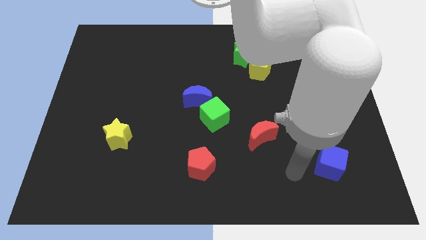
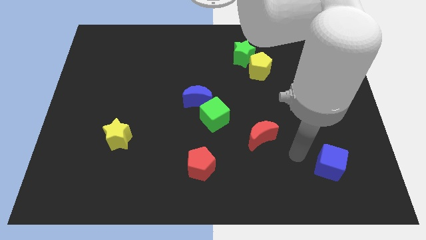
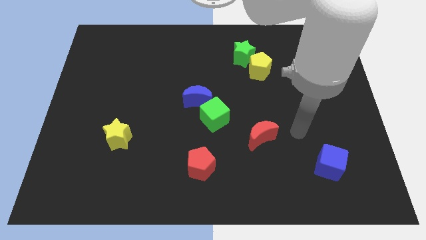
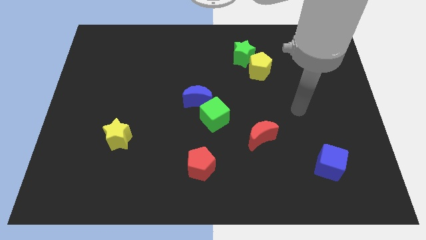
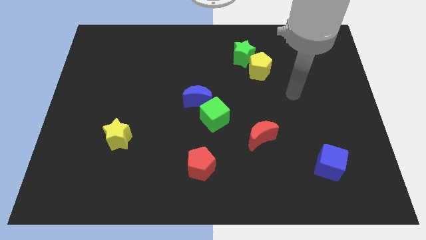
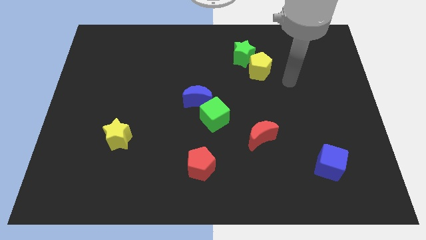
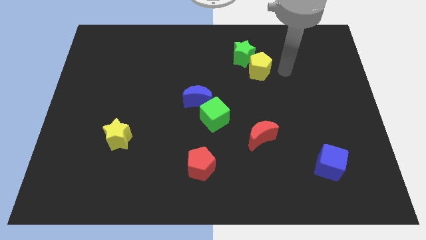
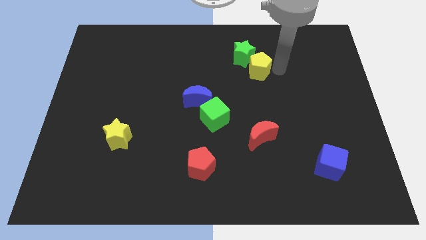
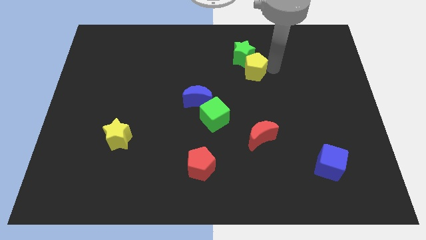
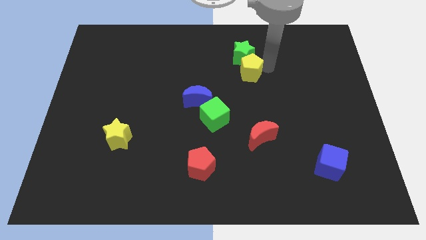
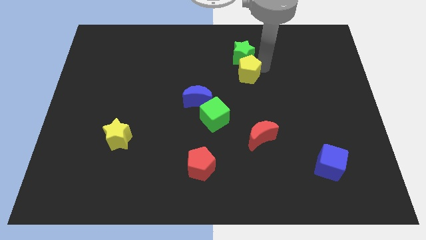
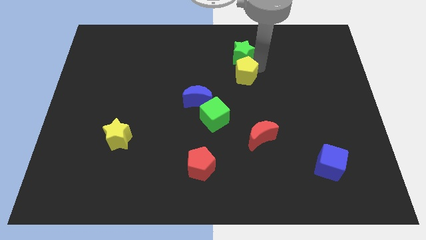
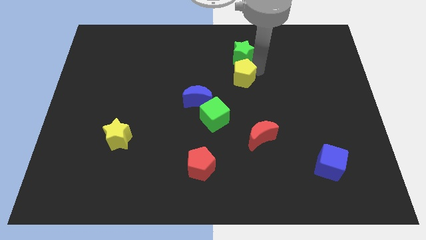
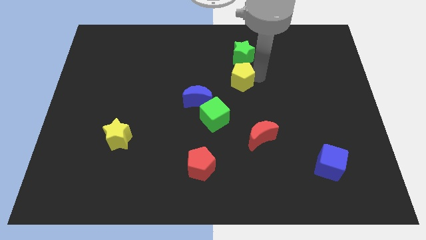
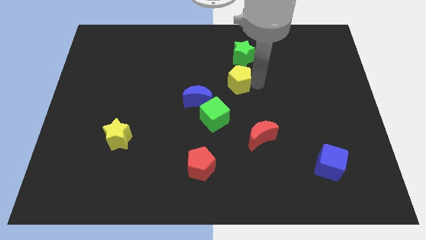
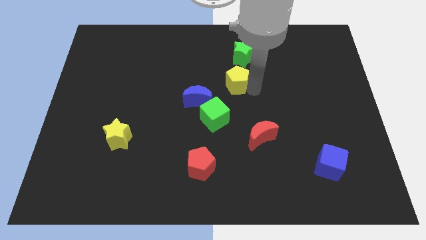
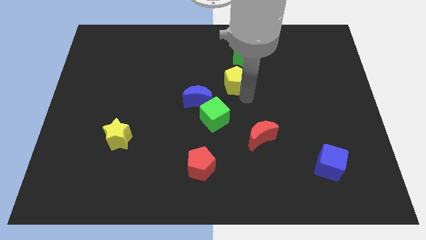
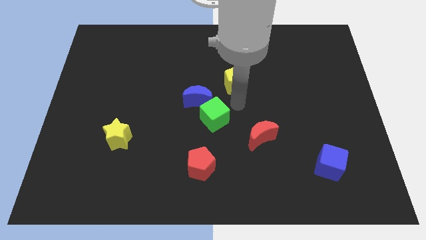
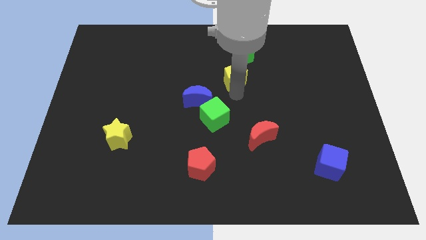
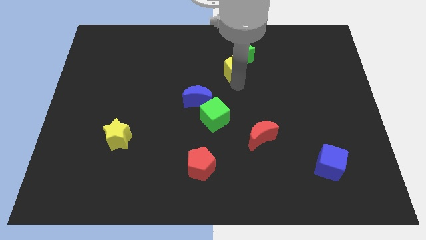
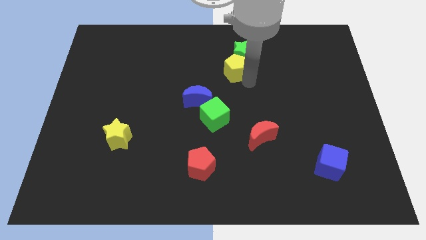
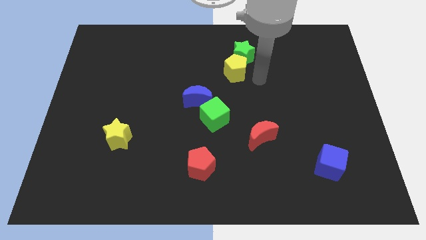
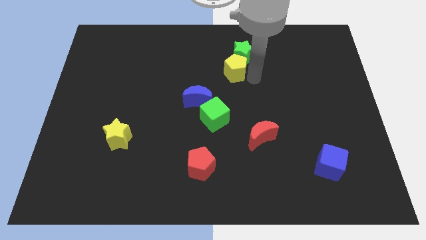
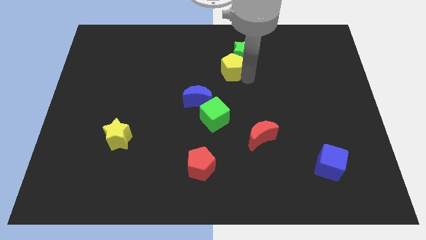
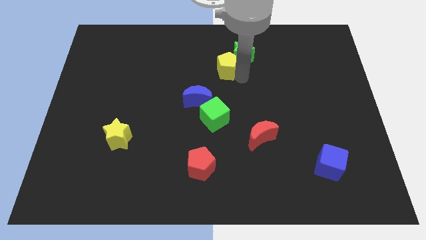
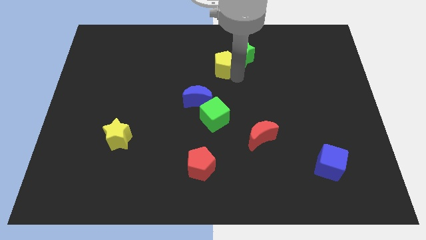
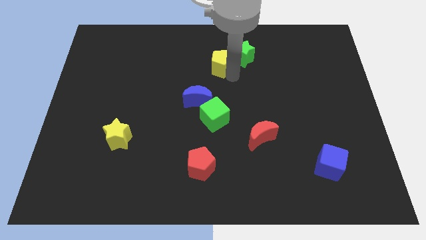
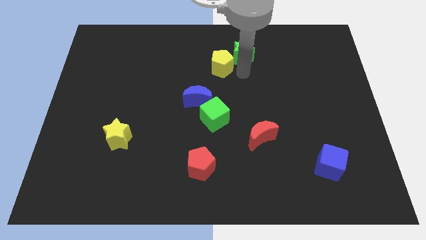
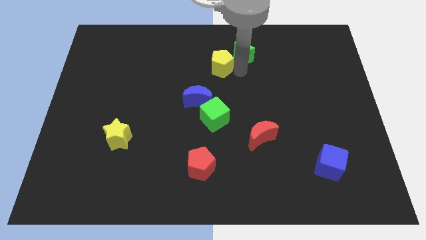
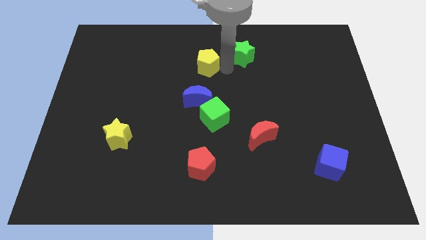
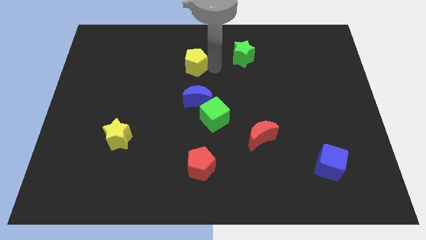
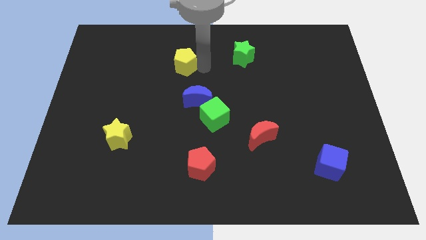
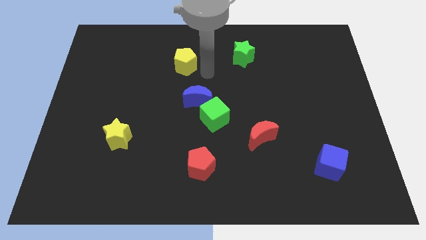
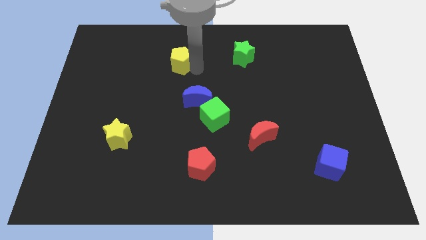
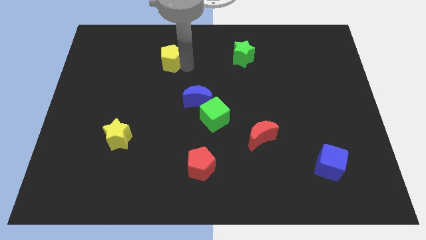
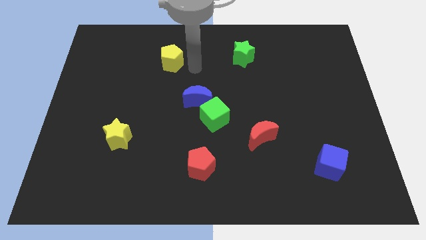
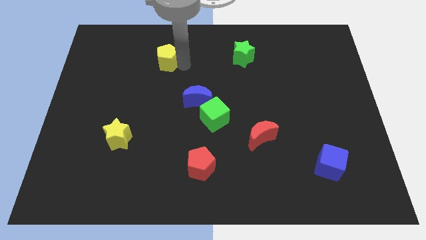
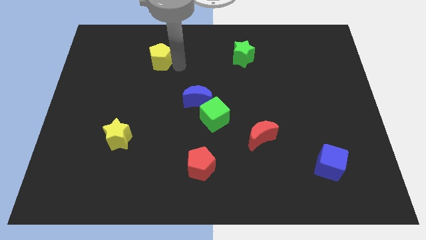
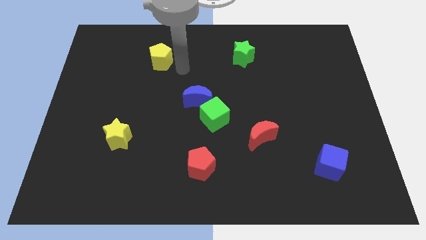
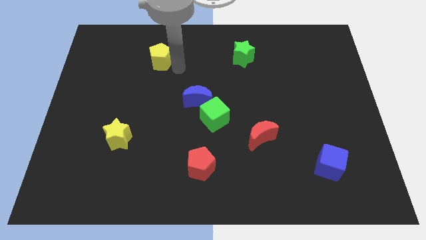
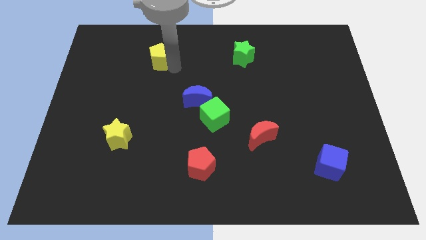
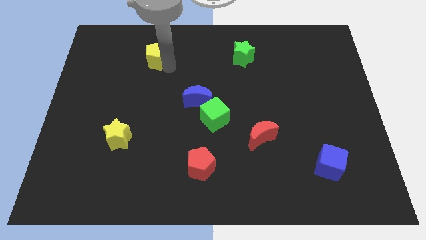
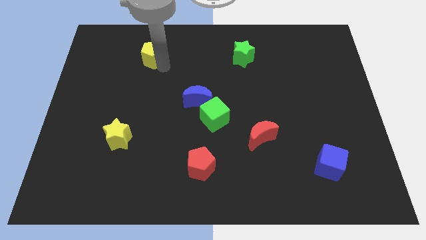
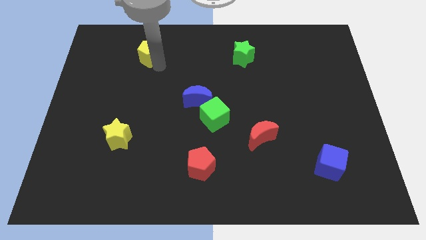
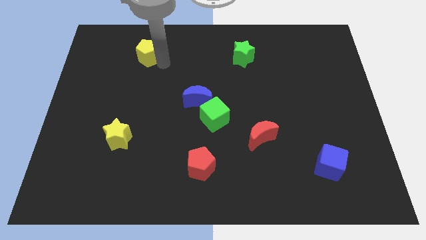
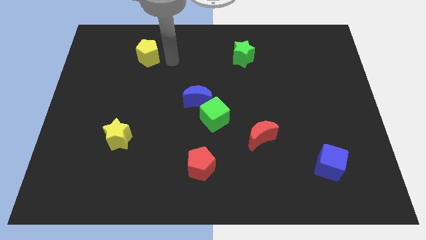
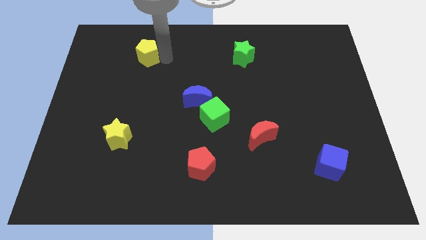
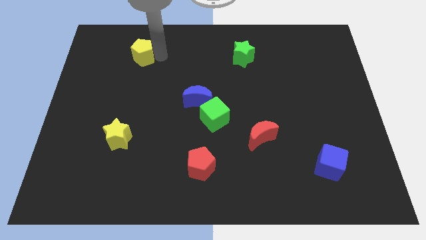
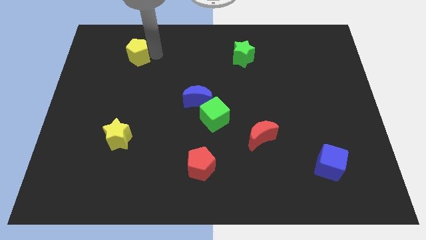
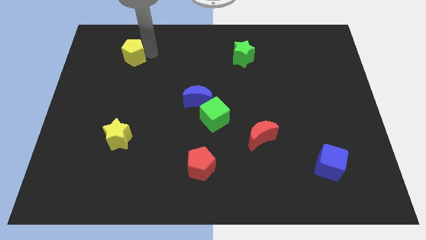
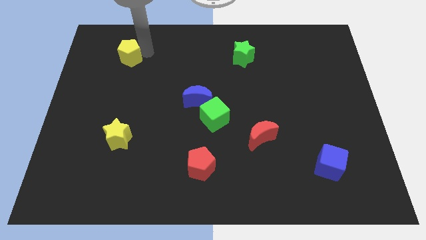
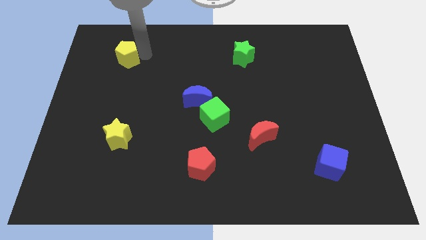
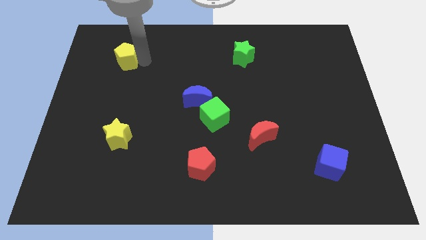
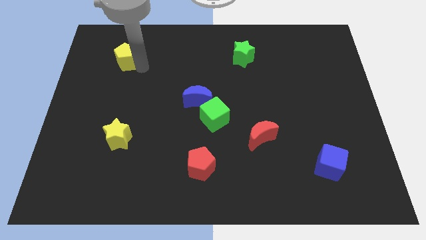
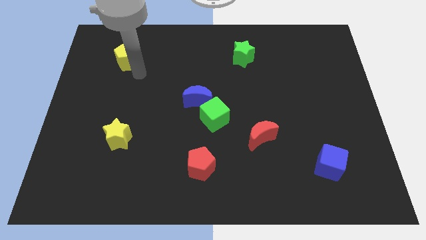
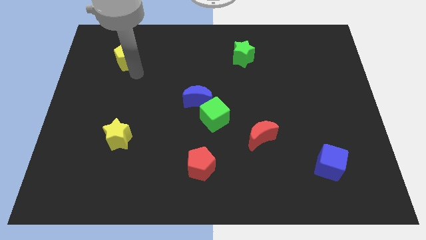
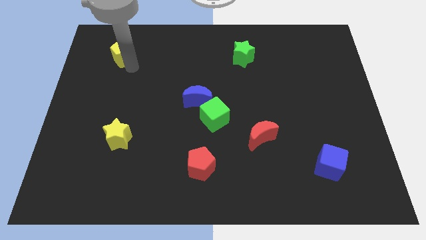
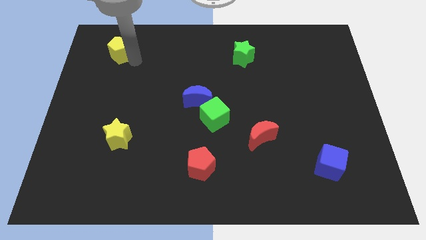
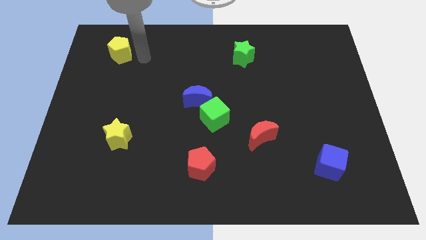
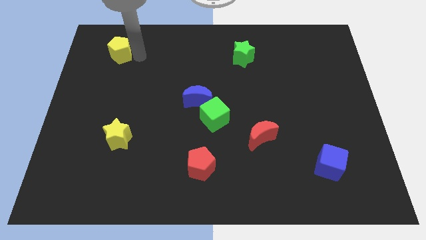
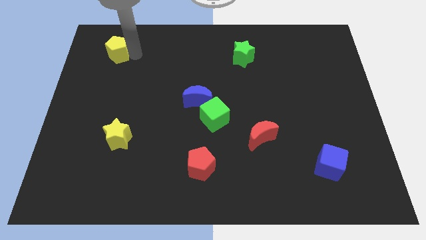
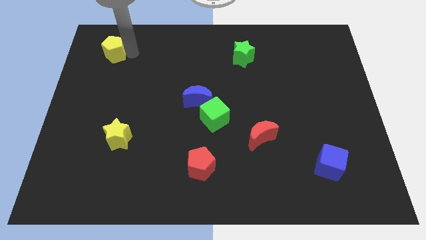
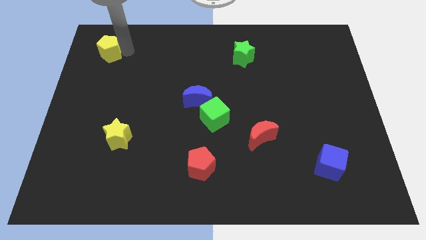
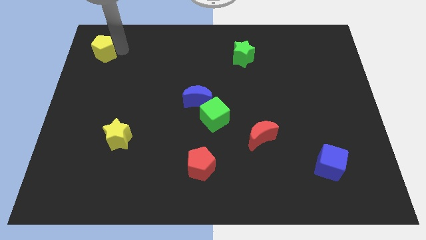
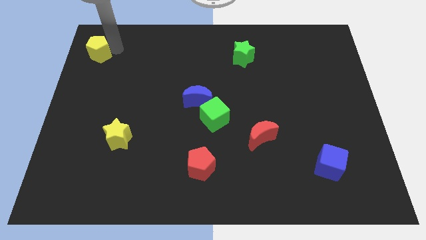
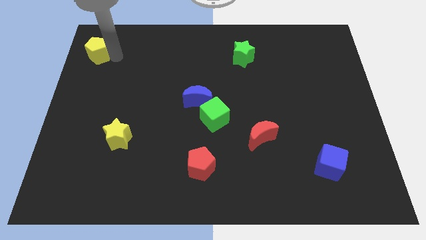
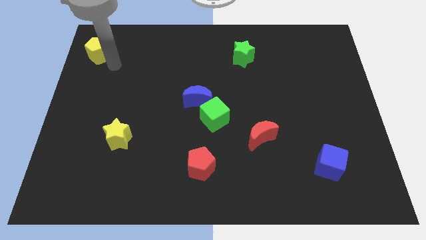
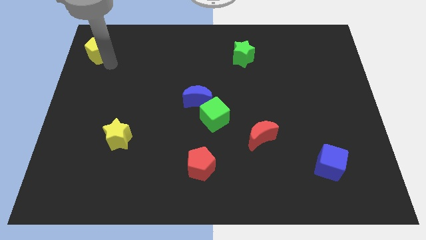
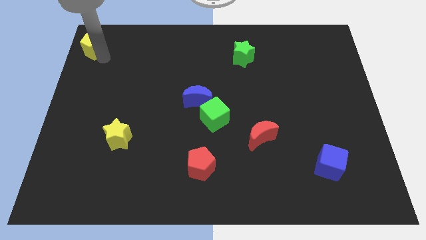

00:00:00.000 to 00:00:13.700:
put the yellow pentagon to the top left corner
